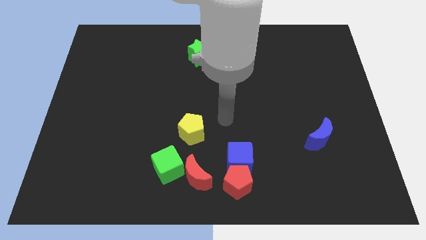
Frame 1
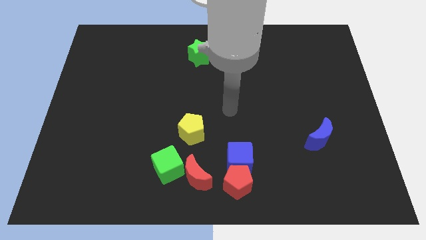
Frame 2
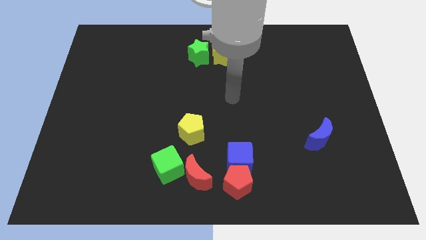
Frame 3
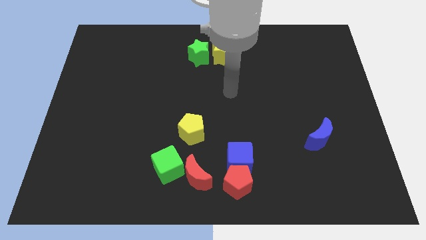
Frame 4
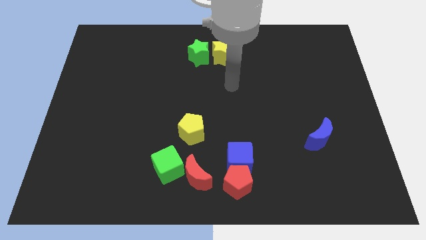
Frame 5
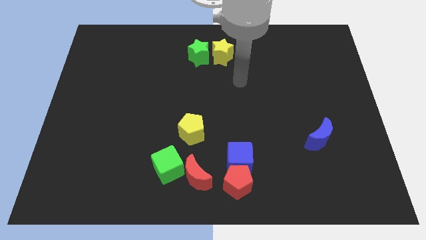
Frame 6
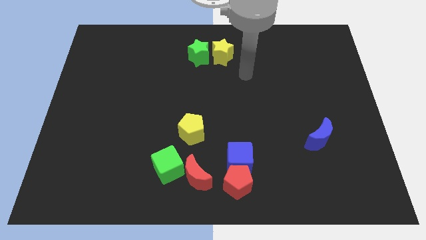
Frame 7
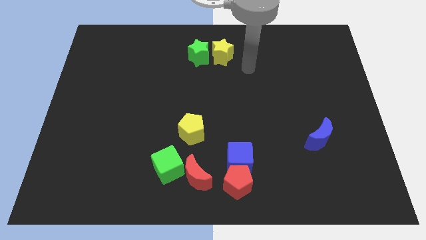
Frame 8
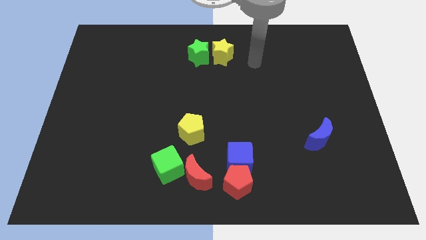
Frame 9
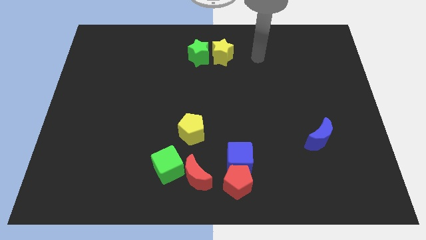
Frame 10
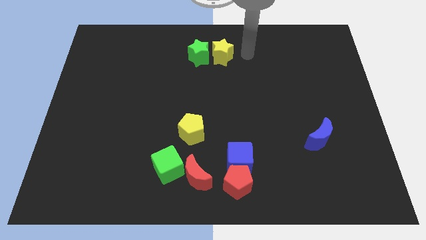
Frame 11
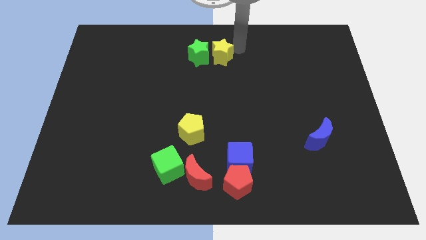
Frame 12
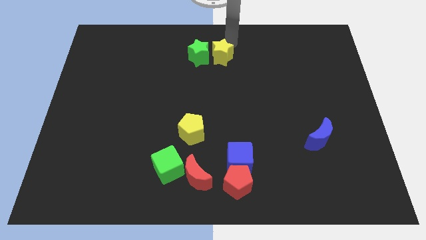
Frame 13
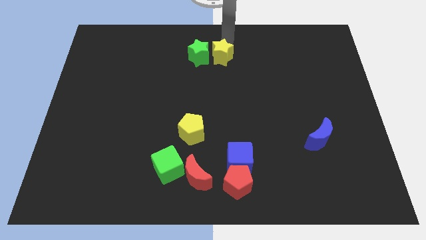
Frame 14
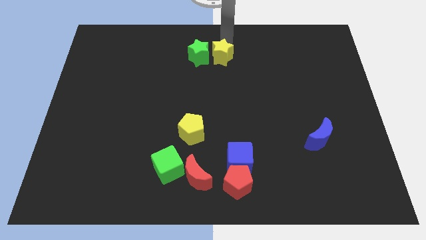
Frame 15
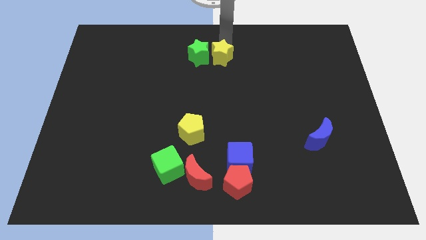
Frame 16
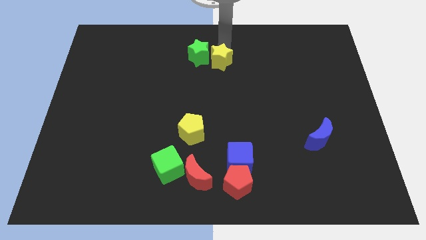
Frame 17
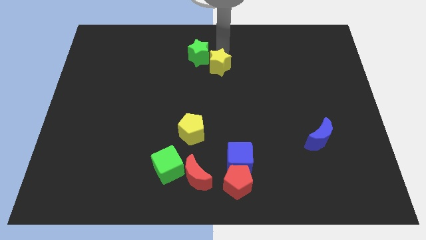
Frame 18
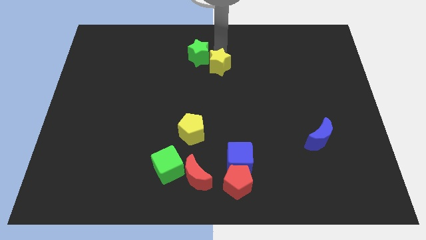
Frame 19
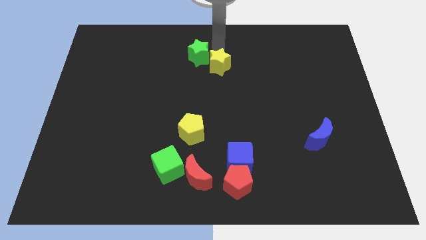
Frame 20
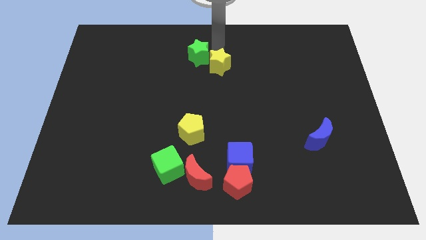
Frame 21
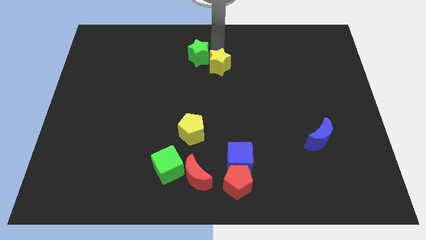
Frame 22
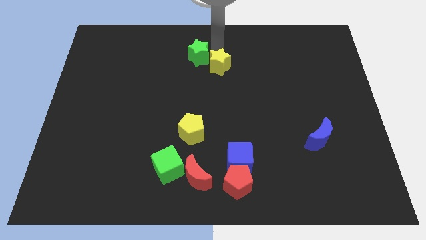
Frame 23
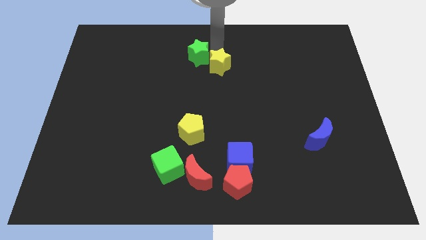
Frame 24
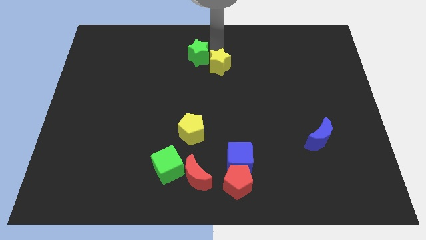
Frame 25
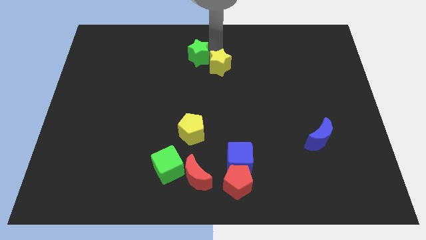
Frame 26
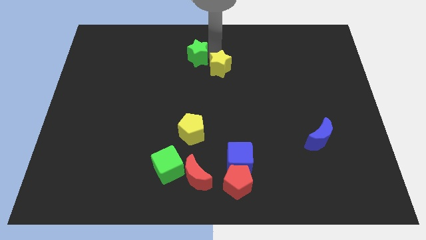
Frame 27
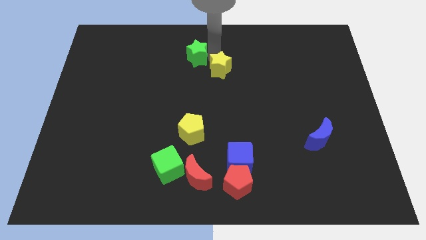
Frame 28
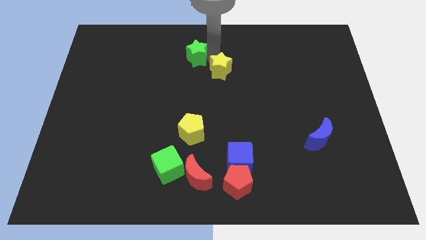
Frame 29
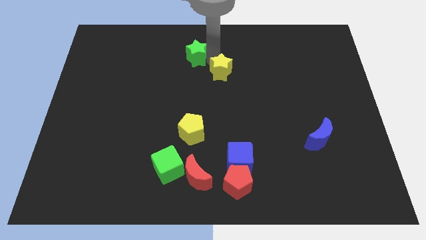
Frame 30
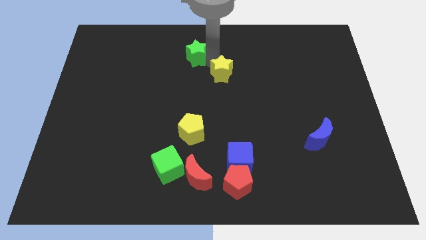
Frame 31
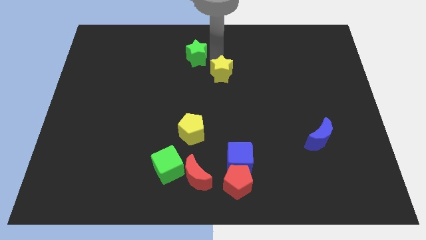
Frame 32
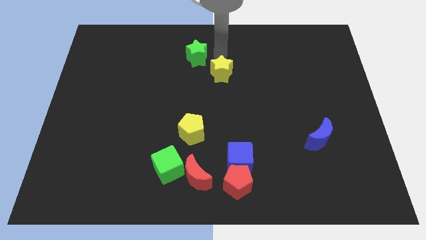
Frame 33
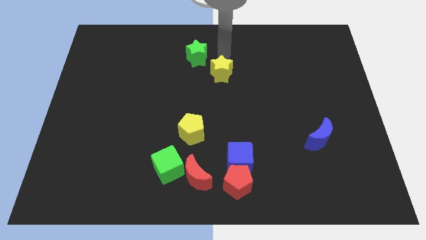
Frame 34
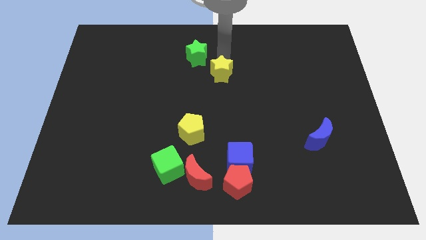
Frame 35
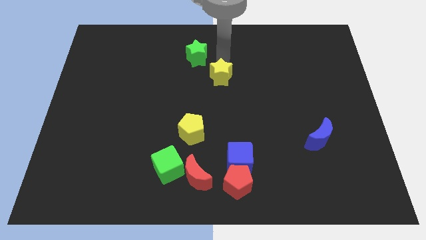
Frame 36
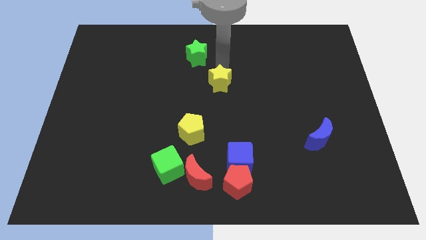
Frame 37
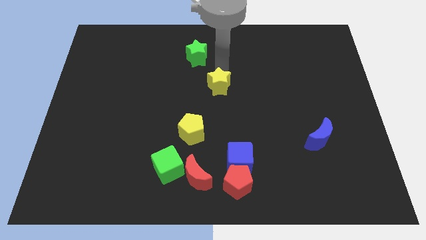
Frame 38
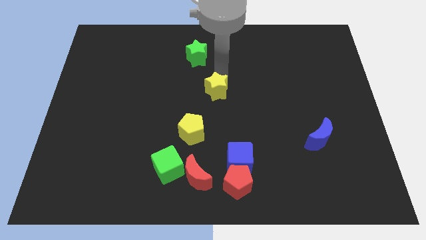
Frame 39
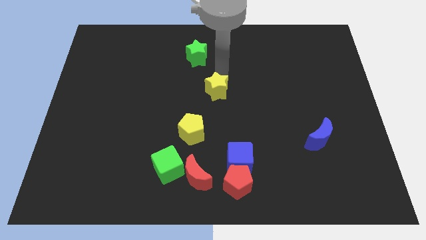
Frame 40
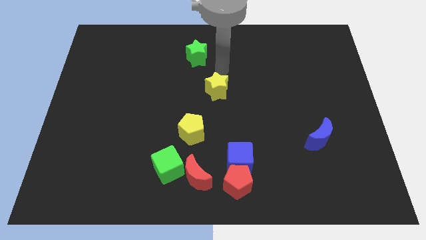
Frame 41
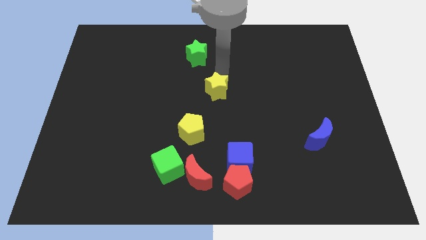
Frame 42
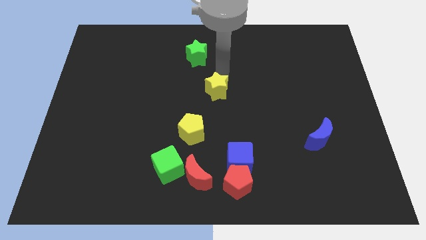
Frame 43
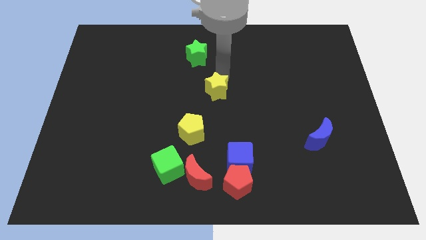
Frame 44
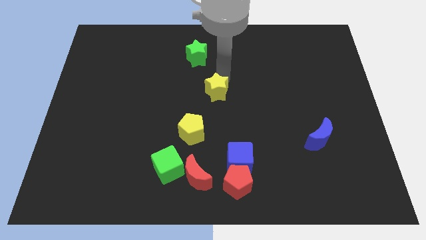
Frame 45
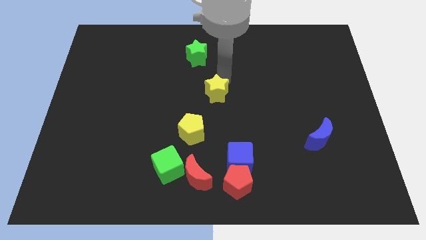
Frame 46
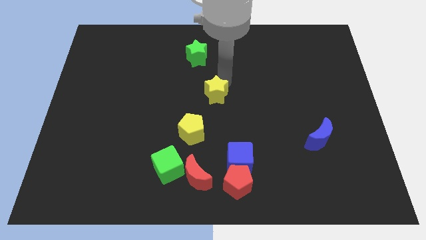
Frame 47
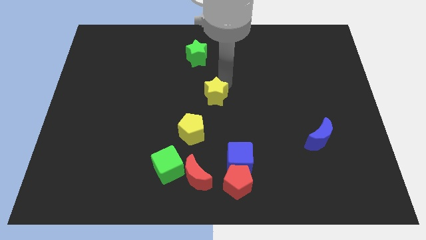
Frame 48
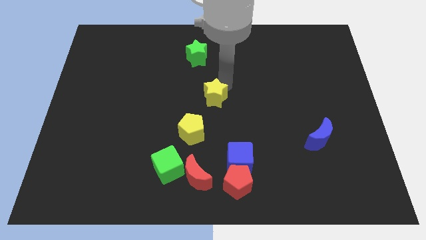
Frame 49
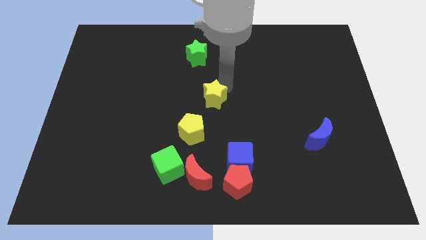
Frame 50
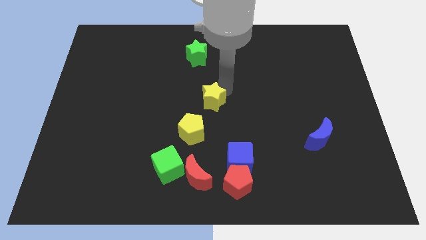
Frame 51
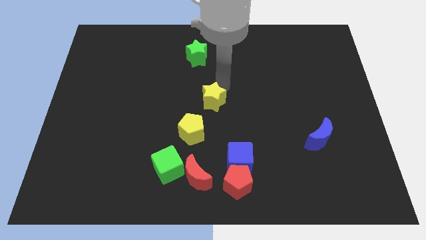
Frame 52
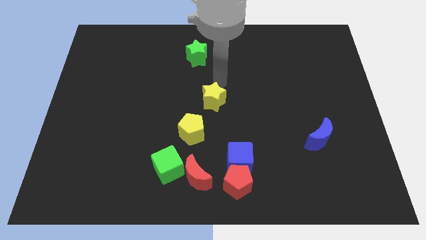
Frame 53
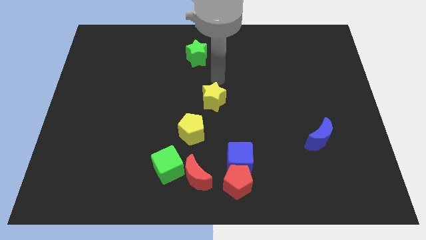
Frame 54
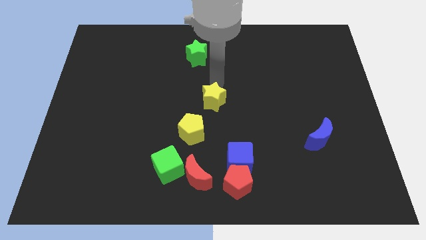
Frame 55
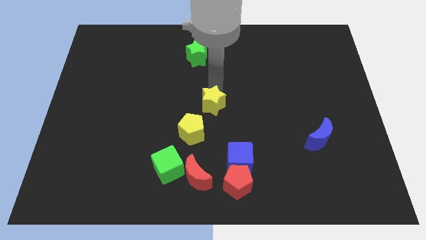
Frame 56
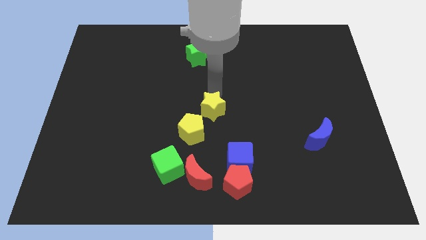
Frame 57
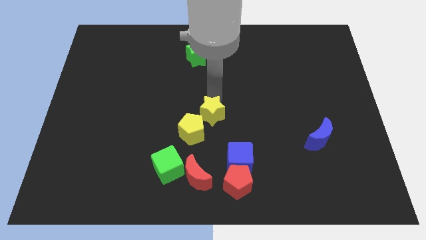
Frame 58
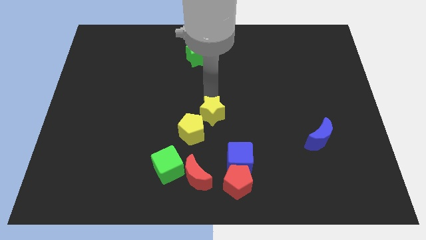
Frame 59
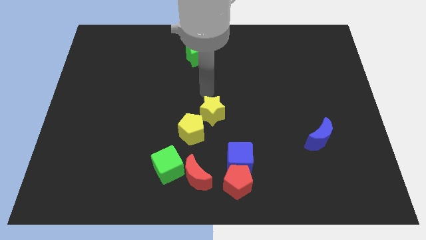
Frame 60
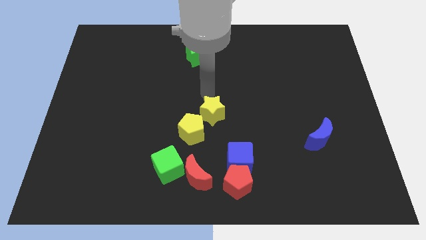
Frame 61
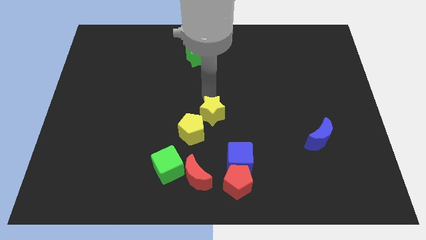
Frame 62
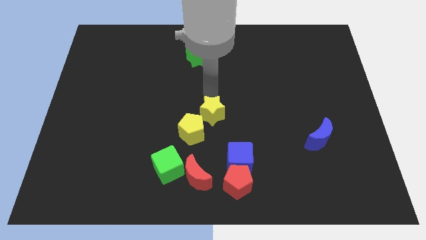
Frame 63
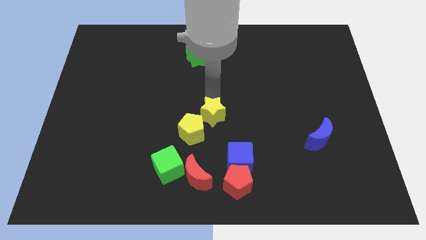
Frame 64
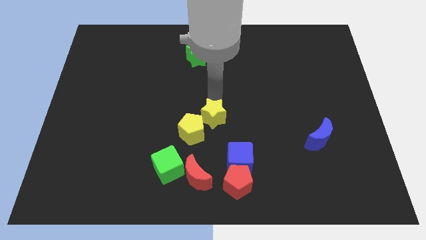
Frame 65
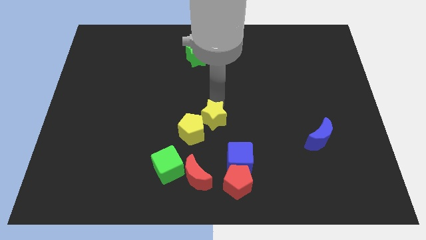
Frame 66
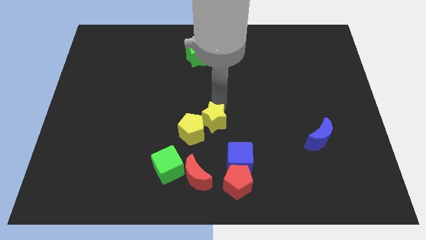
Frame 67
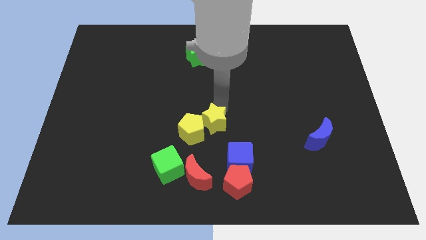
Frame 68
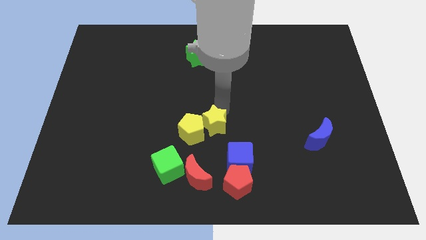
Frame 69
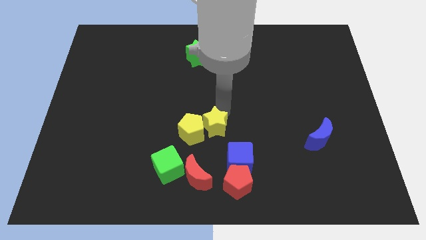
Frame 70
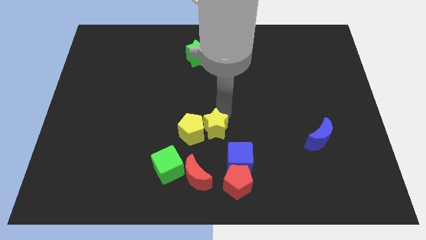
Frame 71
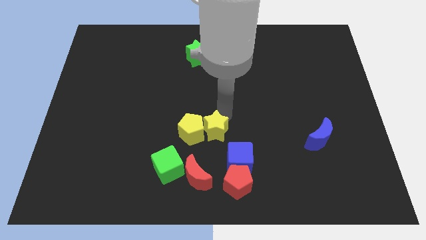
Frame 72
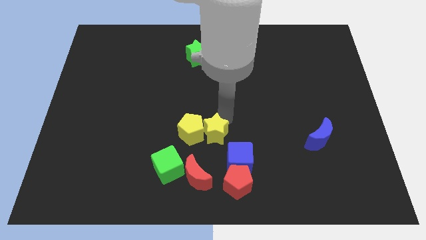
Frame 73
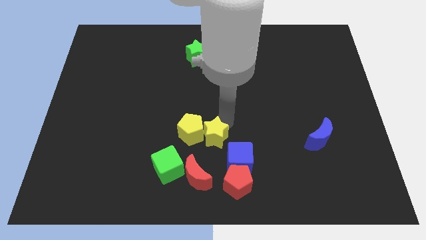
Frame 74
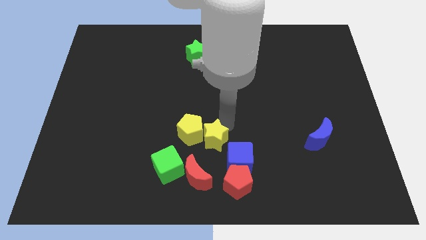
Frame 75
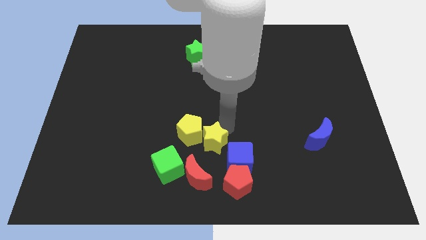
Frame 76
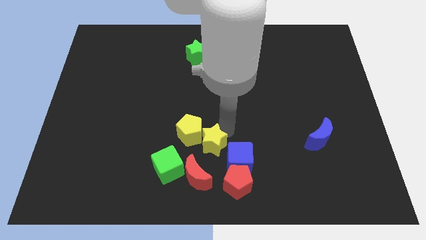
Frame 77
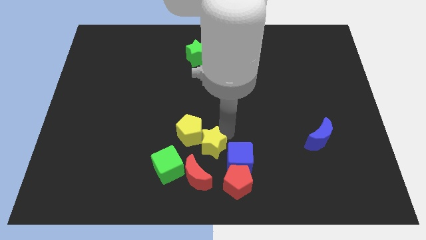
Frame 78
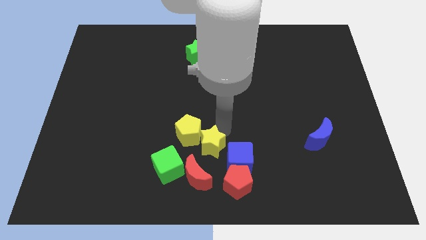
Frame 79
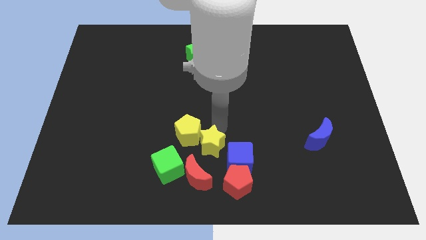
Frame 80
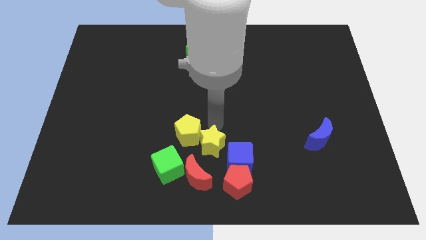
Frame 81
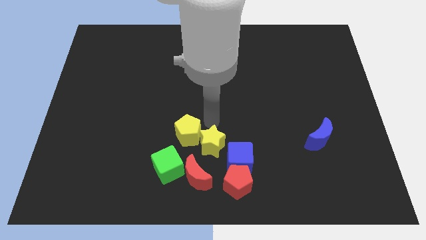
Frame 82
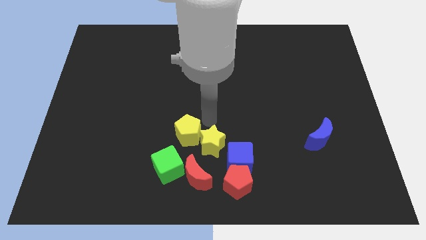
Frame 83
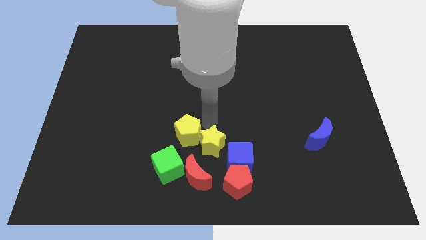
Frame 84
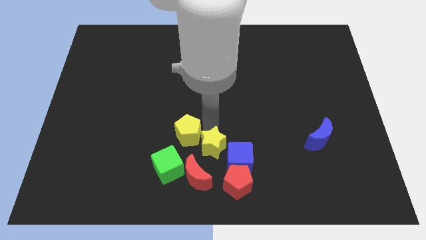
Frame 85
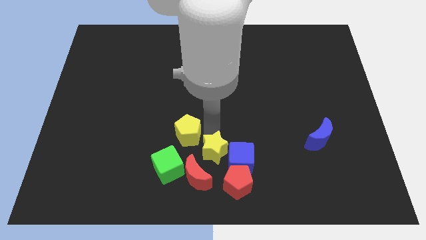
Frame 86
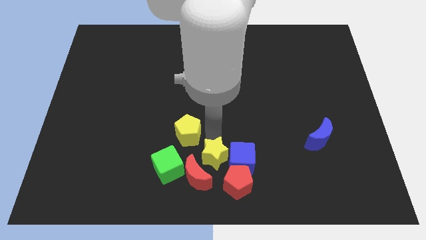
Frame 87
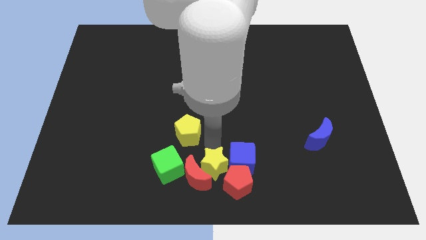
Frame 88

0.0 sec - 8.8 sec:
move the yellow star towards the red pentagon
